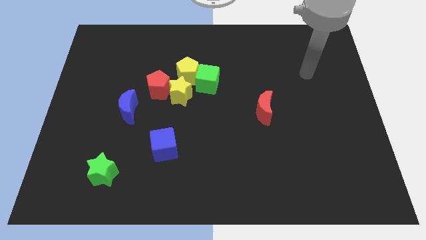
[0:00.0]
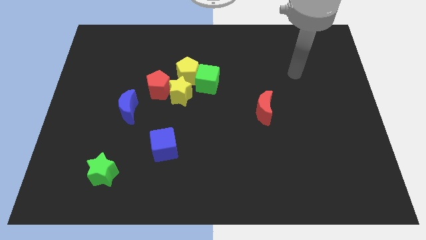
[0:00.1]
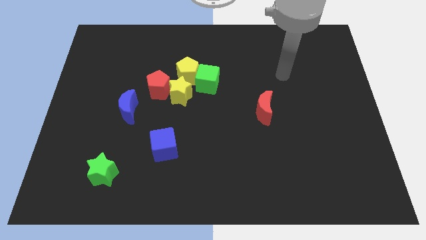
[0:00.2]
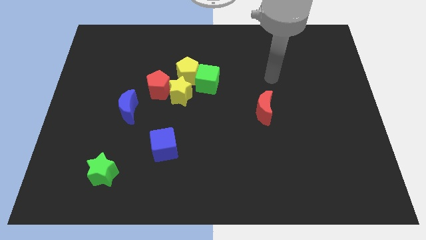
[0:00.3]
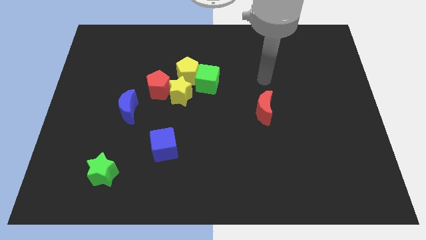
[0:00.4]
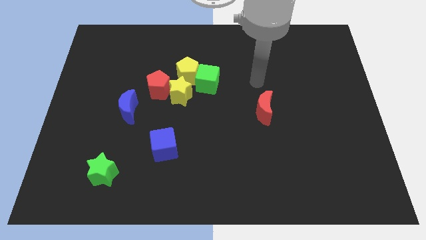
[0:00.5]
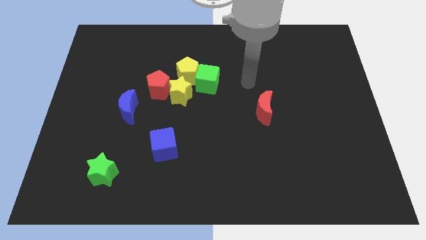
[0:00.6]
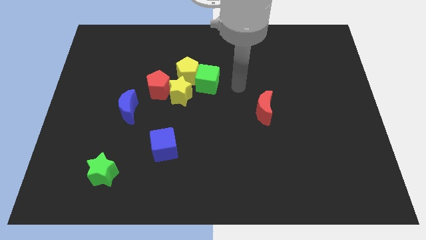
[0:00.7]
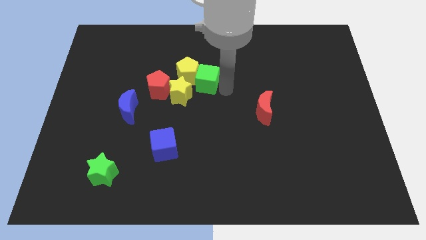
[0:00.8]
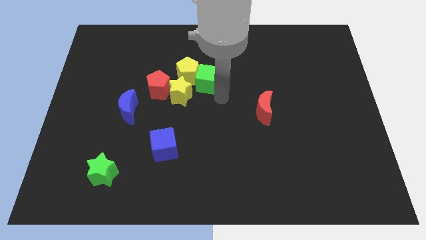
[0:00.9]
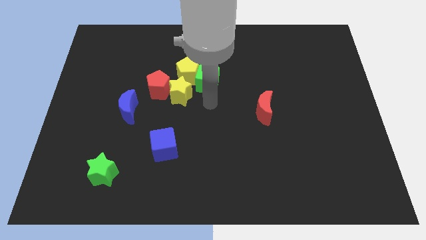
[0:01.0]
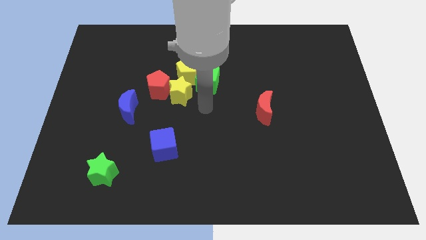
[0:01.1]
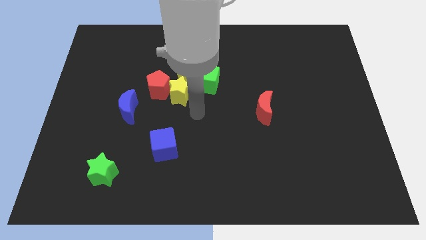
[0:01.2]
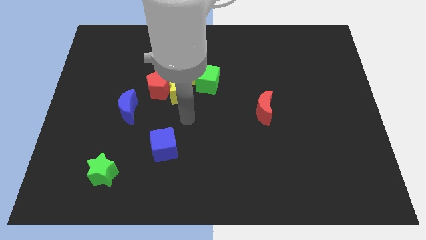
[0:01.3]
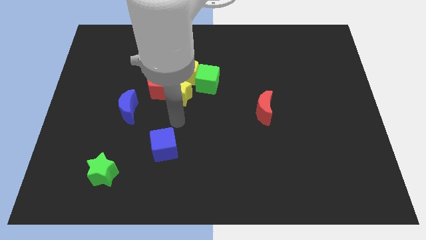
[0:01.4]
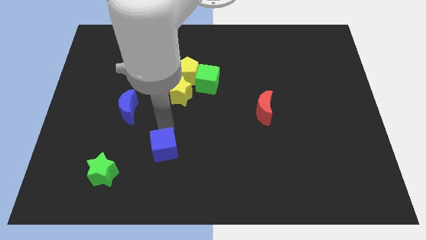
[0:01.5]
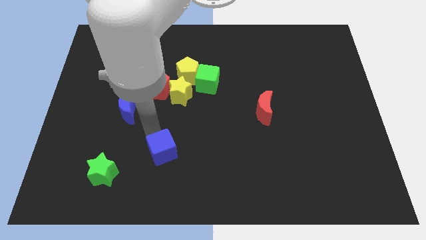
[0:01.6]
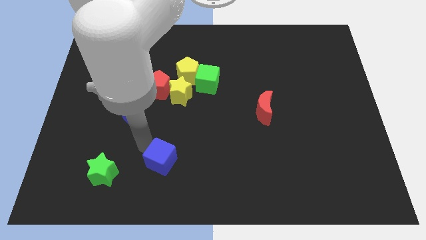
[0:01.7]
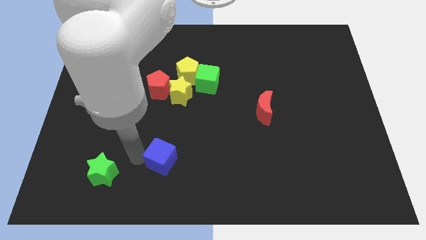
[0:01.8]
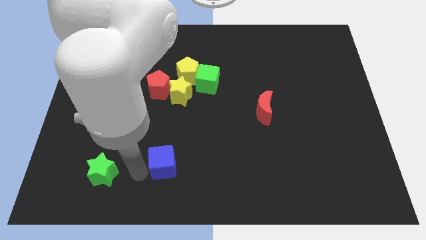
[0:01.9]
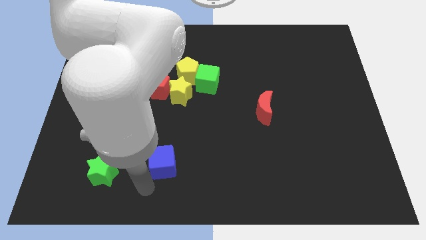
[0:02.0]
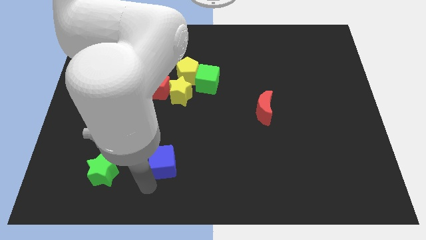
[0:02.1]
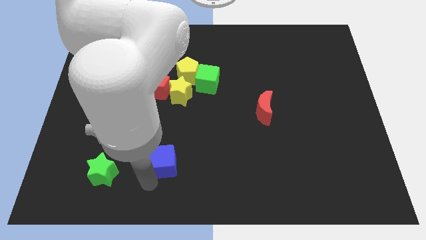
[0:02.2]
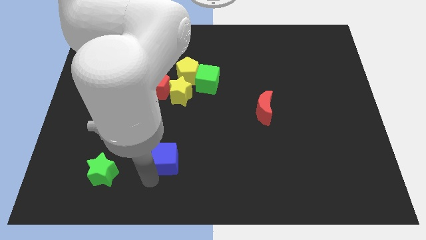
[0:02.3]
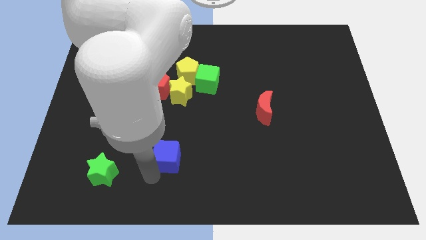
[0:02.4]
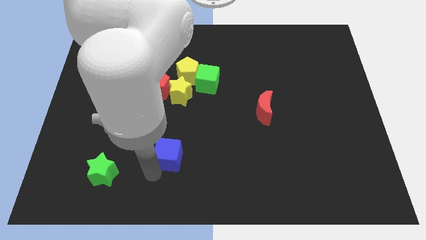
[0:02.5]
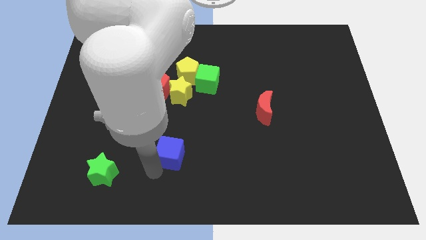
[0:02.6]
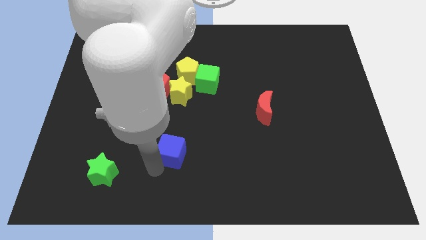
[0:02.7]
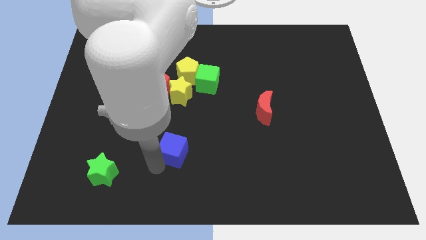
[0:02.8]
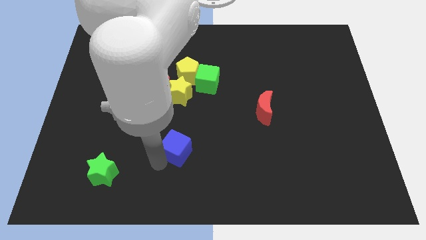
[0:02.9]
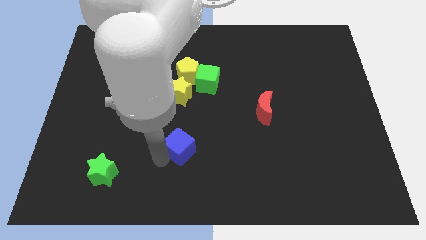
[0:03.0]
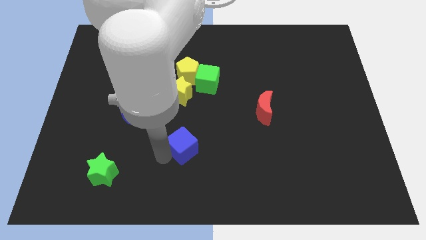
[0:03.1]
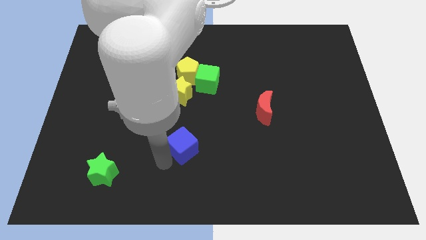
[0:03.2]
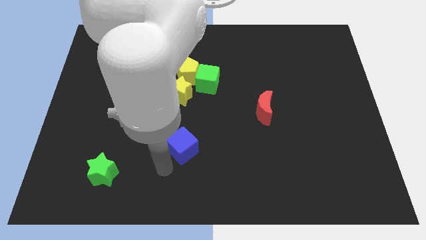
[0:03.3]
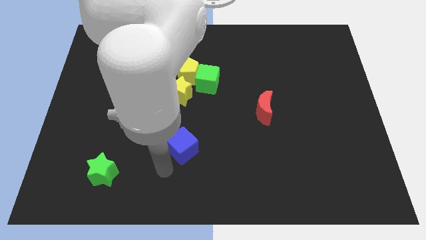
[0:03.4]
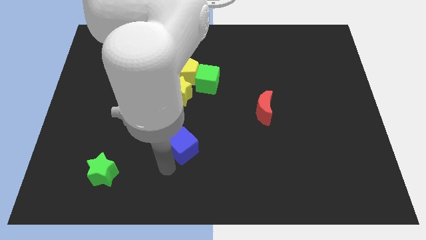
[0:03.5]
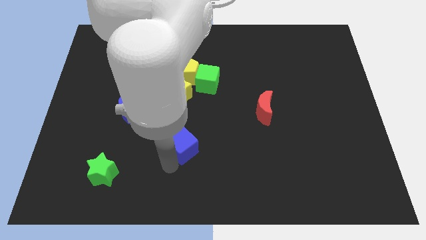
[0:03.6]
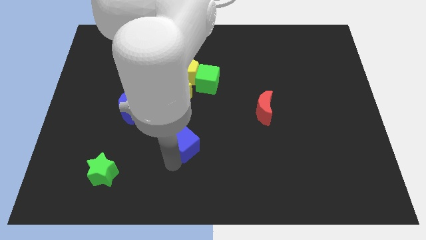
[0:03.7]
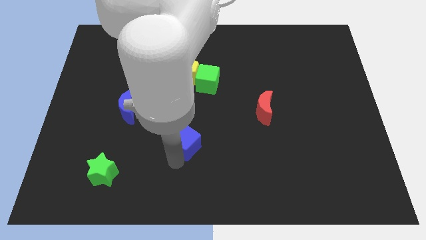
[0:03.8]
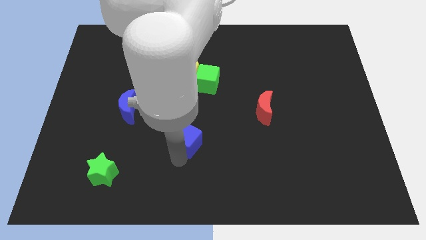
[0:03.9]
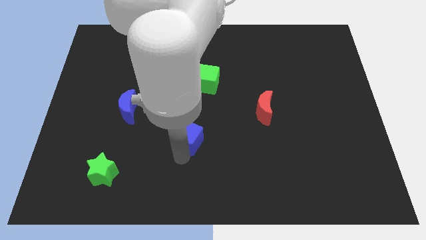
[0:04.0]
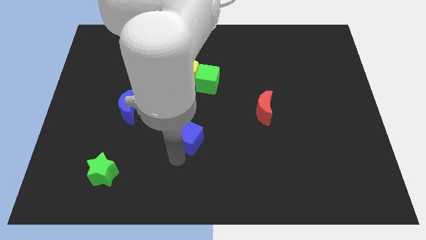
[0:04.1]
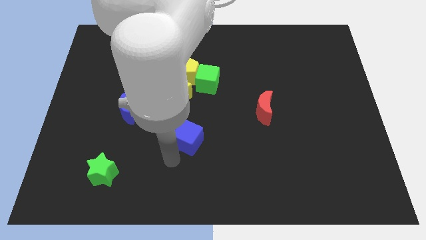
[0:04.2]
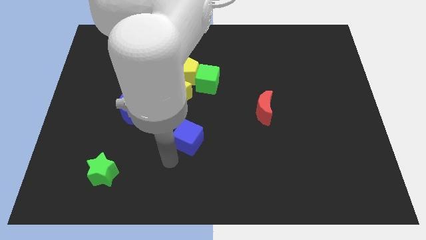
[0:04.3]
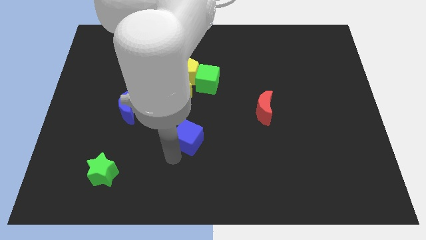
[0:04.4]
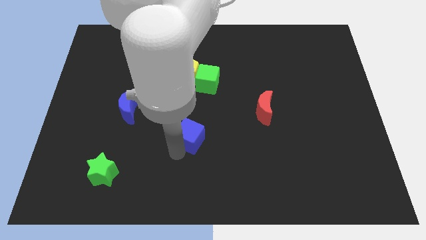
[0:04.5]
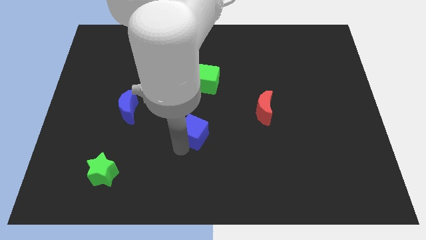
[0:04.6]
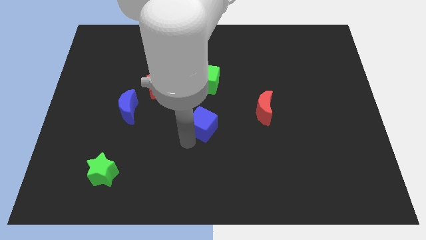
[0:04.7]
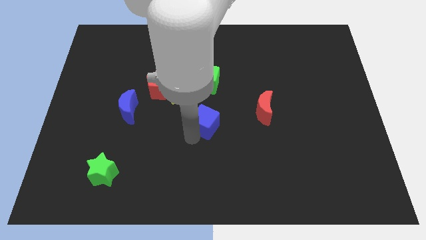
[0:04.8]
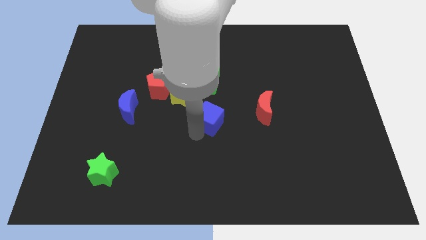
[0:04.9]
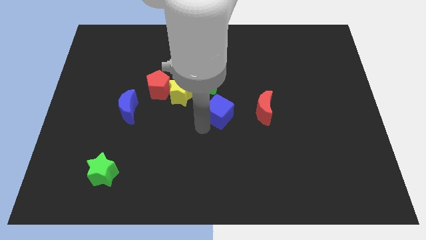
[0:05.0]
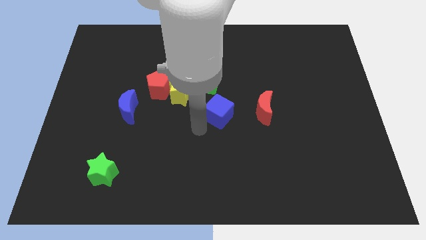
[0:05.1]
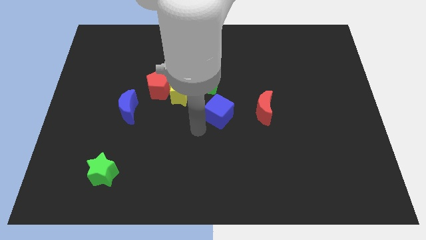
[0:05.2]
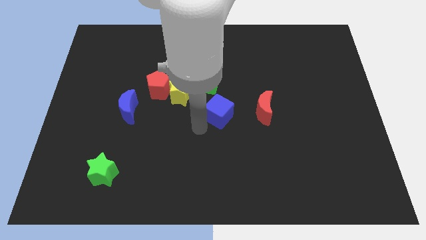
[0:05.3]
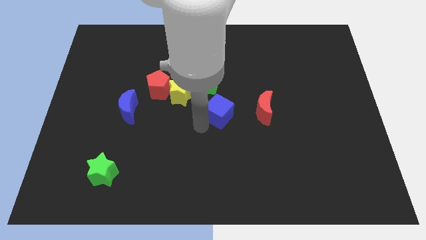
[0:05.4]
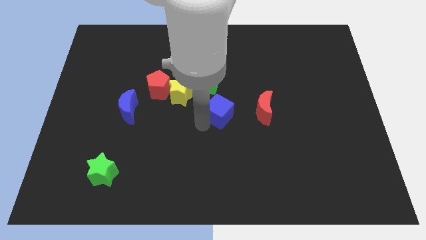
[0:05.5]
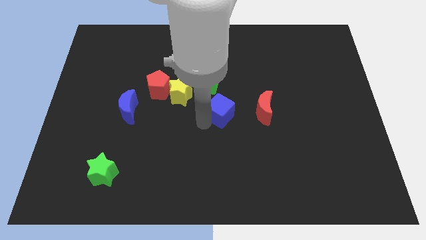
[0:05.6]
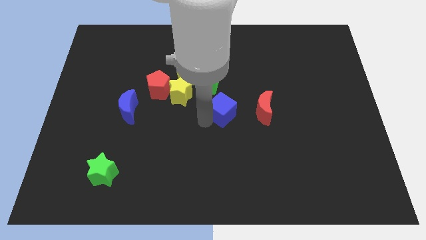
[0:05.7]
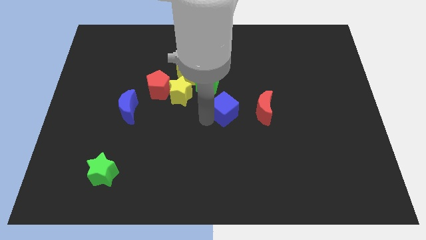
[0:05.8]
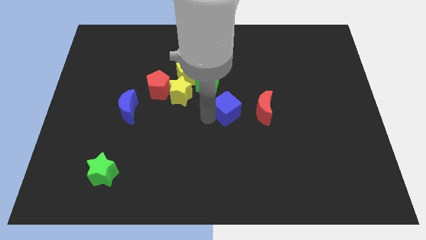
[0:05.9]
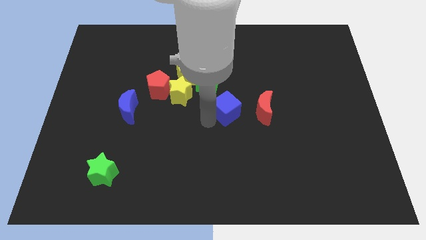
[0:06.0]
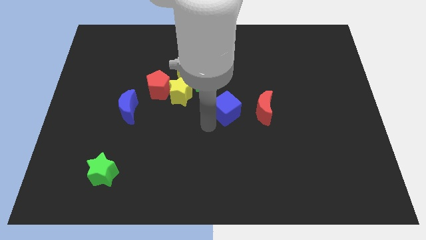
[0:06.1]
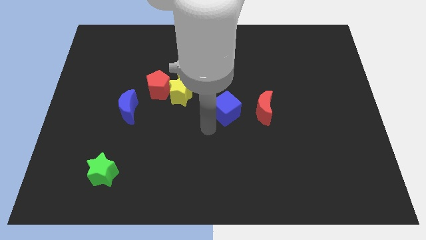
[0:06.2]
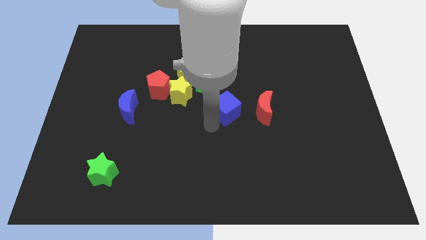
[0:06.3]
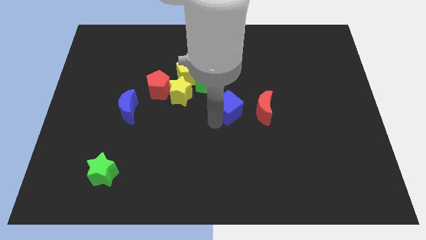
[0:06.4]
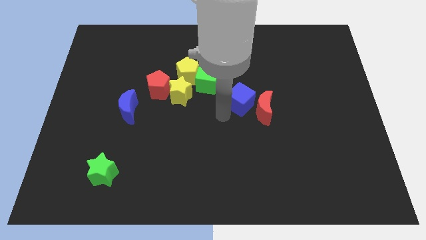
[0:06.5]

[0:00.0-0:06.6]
slide the blue cube upwards and right diagonally

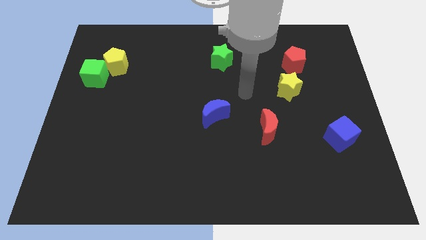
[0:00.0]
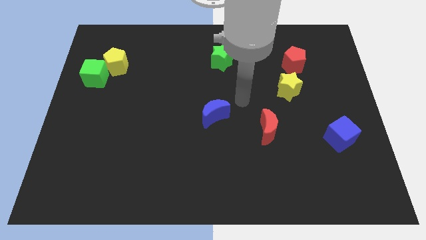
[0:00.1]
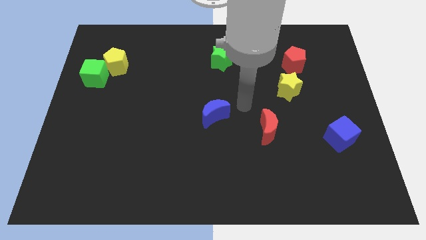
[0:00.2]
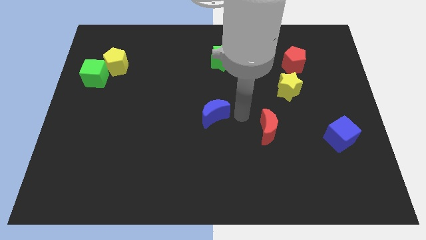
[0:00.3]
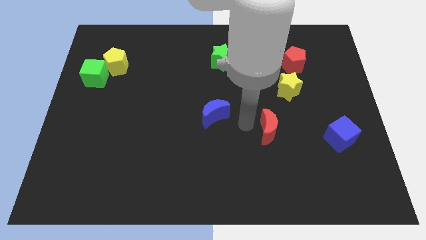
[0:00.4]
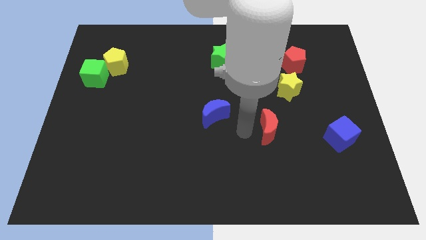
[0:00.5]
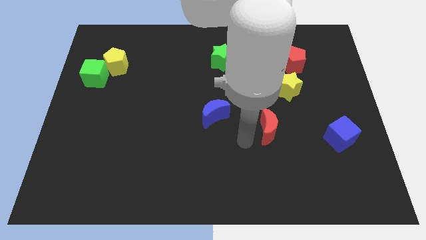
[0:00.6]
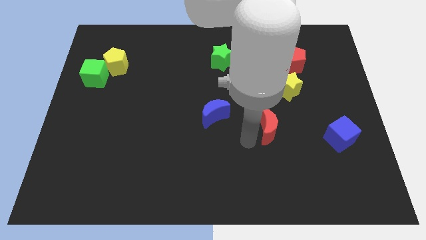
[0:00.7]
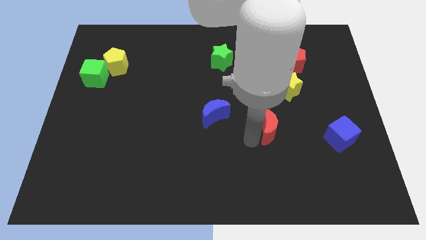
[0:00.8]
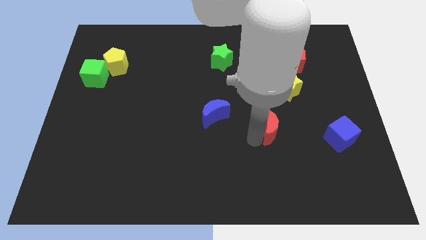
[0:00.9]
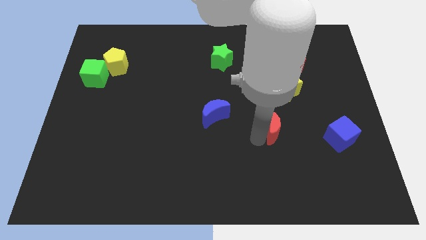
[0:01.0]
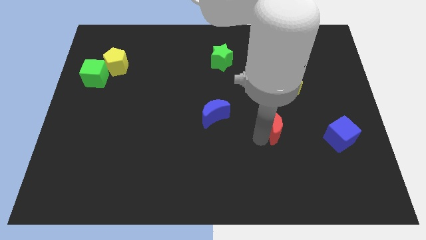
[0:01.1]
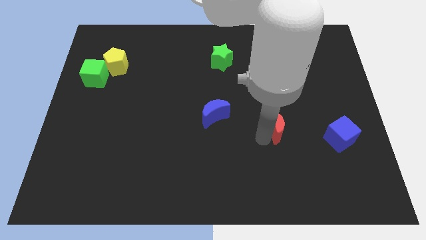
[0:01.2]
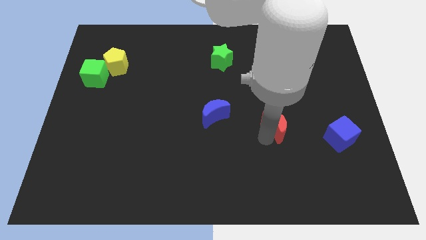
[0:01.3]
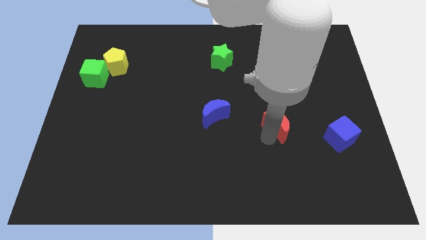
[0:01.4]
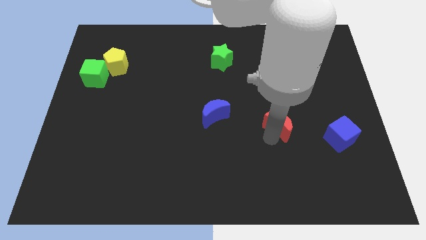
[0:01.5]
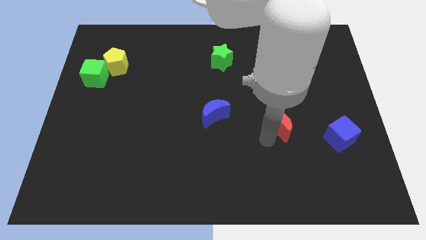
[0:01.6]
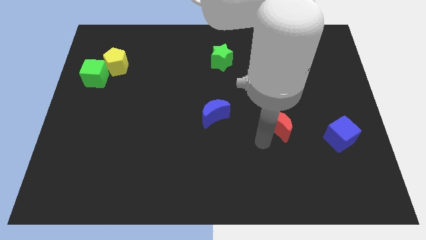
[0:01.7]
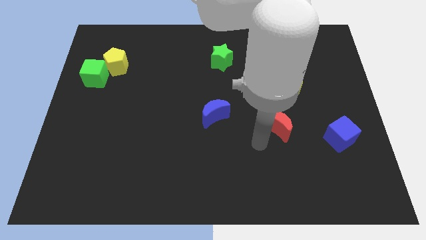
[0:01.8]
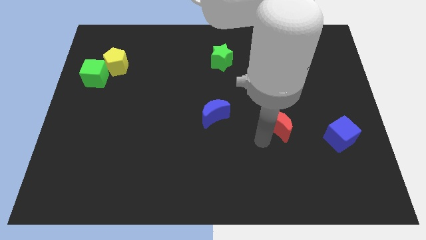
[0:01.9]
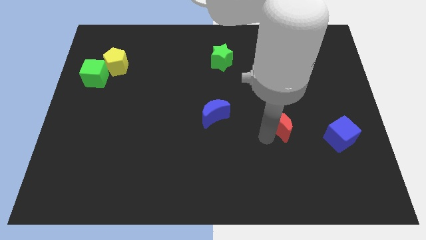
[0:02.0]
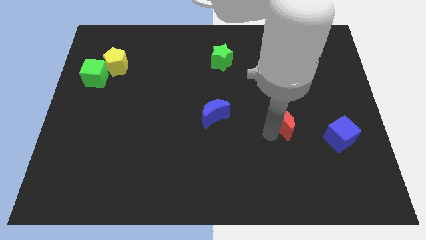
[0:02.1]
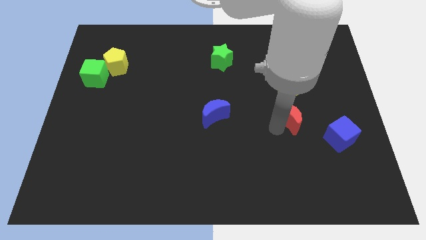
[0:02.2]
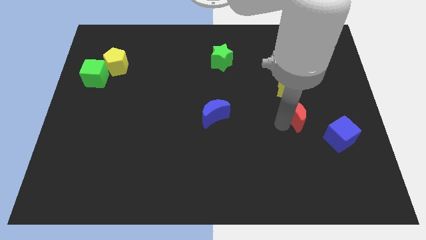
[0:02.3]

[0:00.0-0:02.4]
move the red moon somewhat diagonally upwards and right
